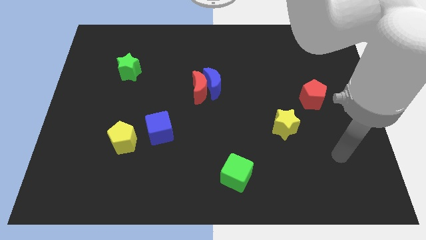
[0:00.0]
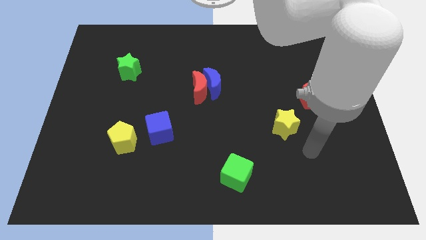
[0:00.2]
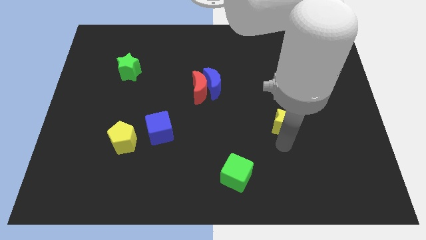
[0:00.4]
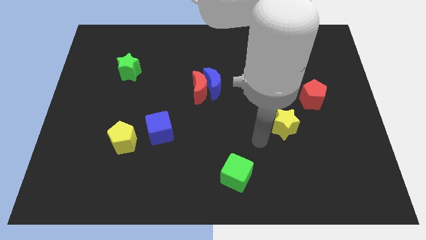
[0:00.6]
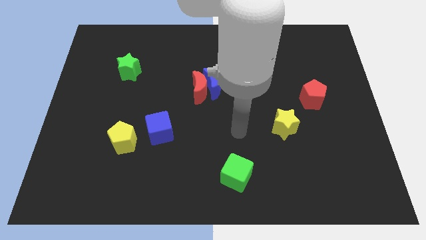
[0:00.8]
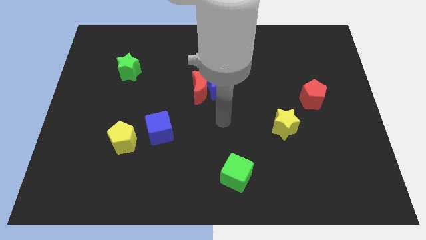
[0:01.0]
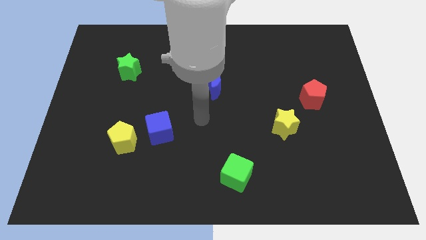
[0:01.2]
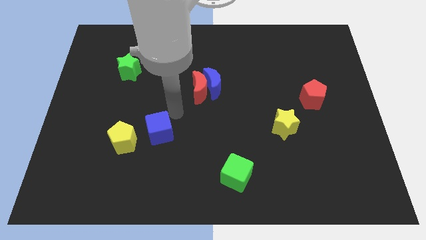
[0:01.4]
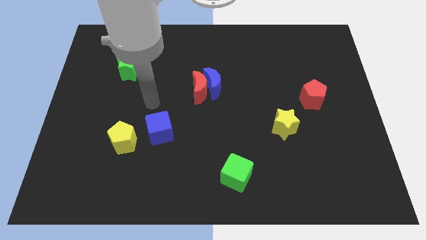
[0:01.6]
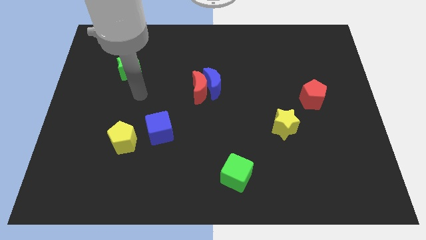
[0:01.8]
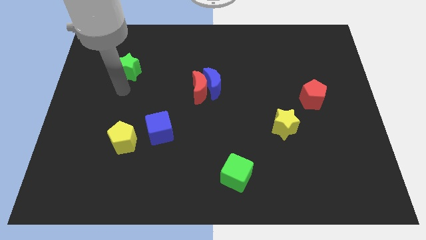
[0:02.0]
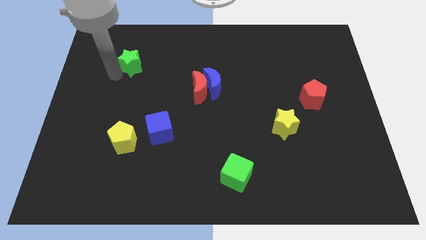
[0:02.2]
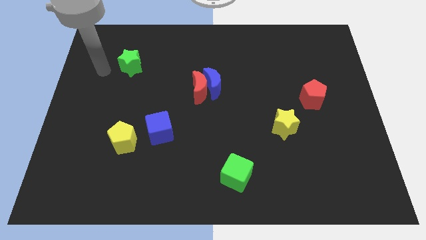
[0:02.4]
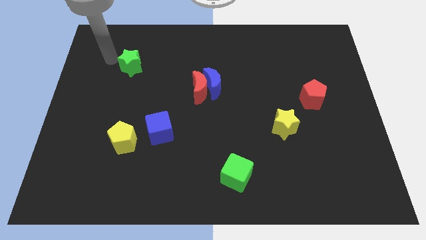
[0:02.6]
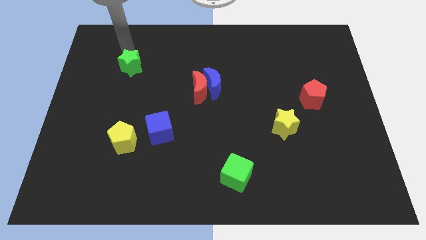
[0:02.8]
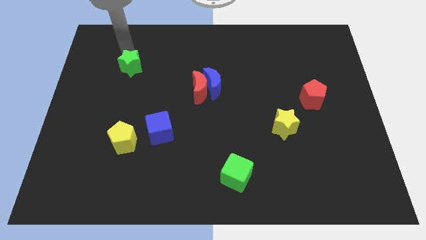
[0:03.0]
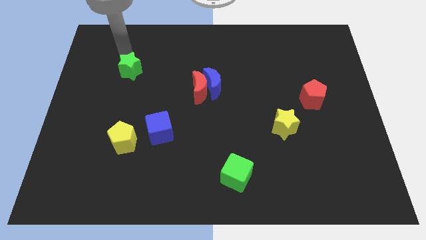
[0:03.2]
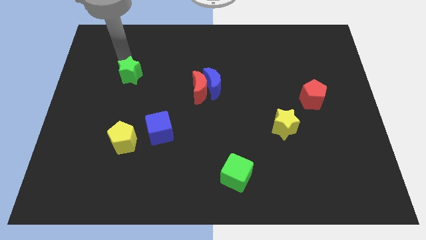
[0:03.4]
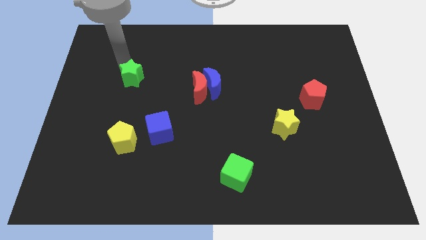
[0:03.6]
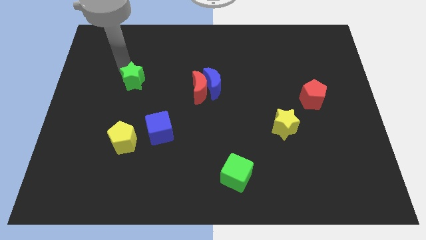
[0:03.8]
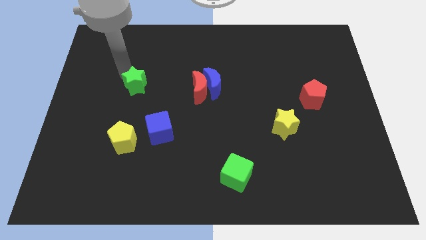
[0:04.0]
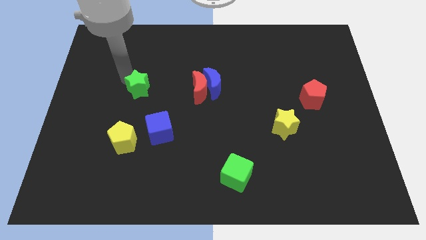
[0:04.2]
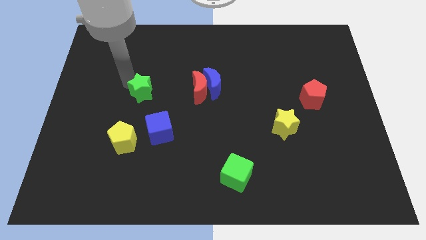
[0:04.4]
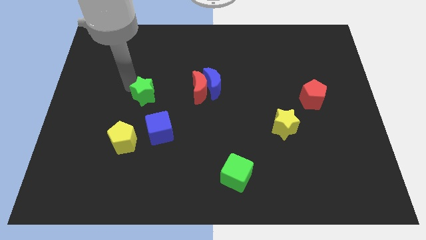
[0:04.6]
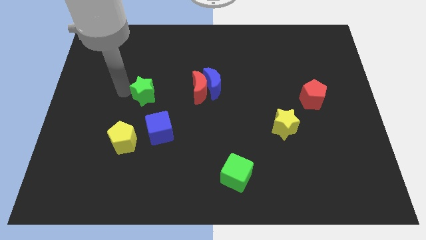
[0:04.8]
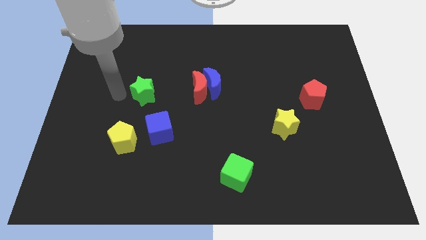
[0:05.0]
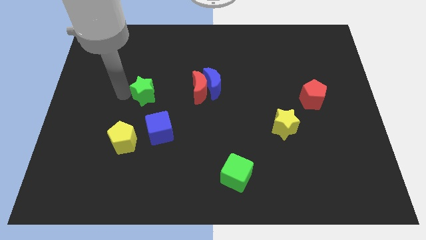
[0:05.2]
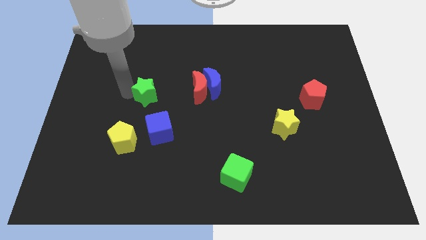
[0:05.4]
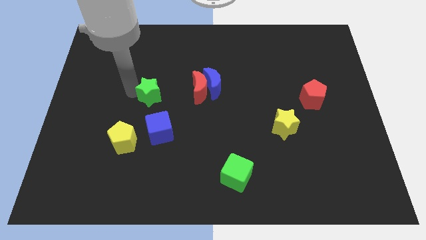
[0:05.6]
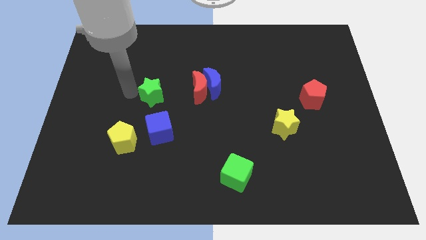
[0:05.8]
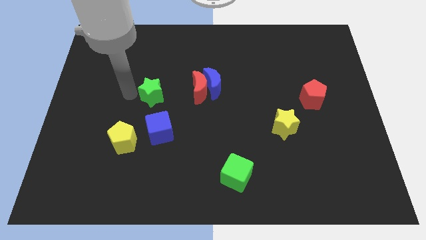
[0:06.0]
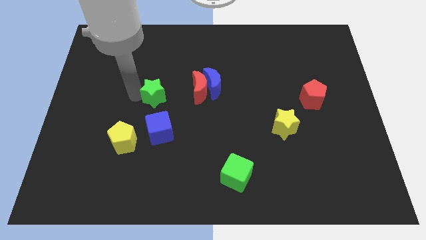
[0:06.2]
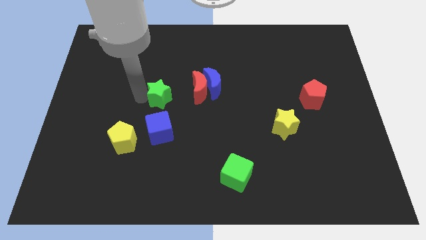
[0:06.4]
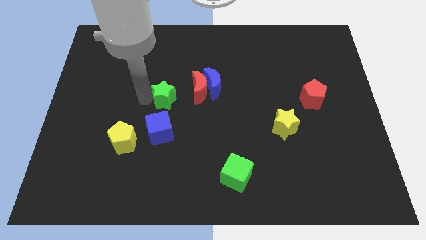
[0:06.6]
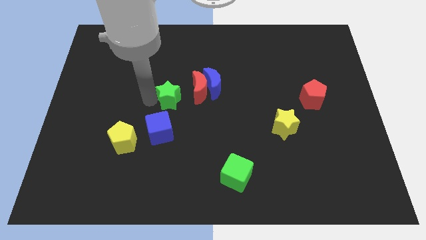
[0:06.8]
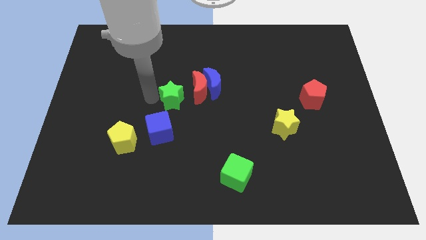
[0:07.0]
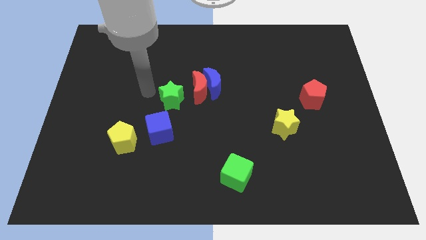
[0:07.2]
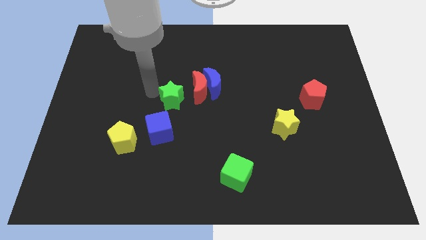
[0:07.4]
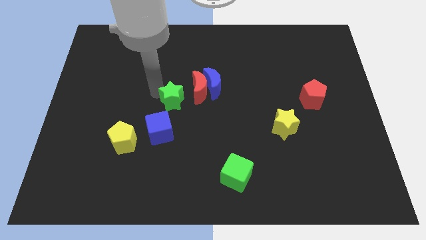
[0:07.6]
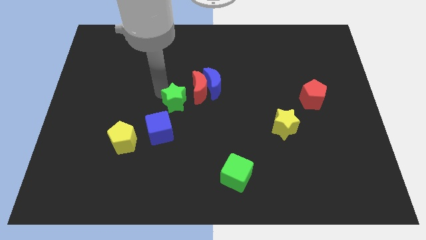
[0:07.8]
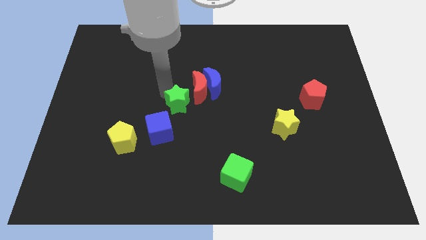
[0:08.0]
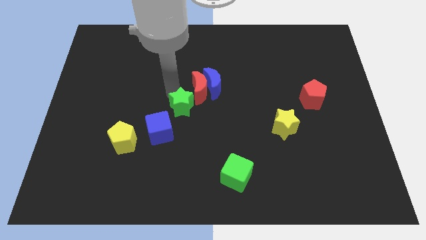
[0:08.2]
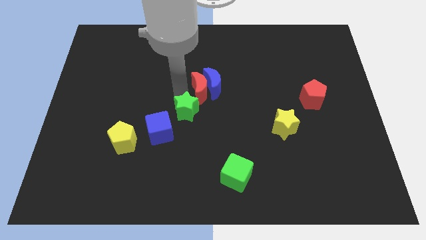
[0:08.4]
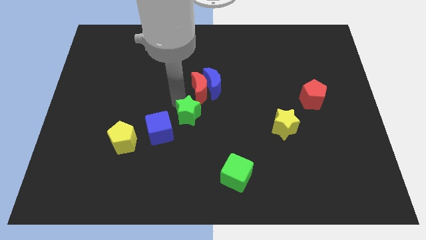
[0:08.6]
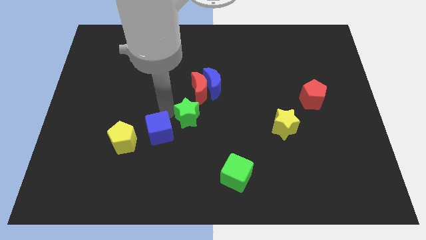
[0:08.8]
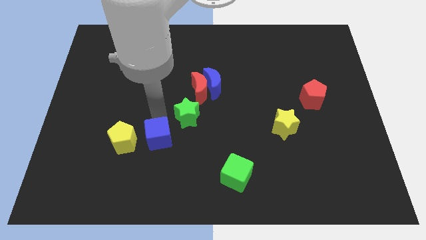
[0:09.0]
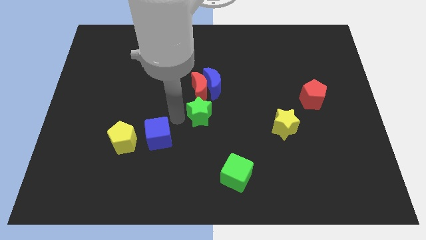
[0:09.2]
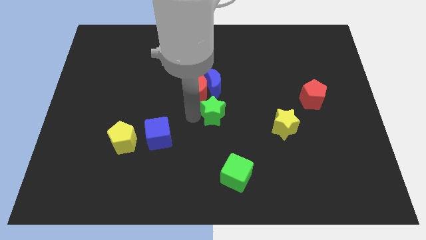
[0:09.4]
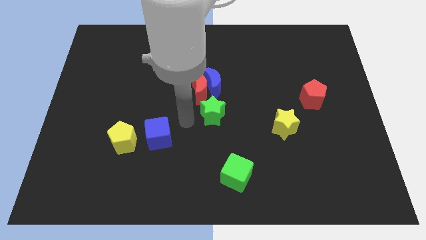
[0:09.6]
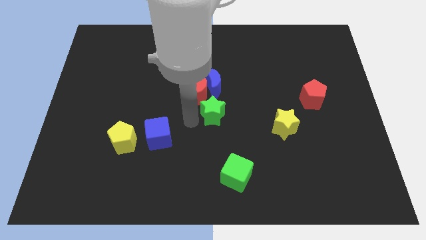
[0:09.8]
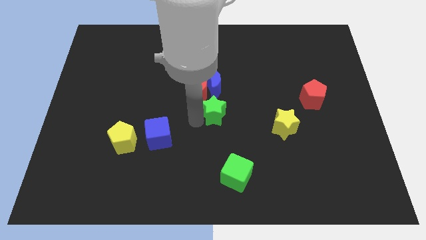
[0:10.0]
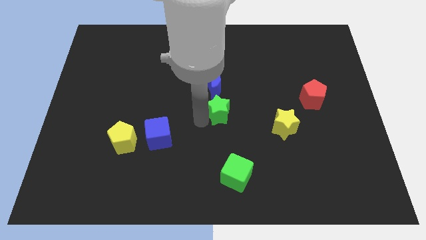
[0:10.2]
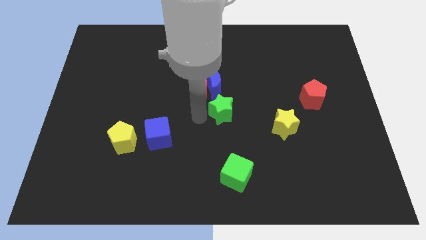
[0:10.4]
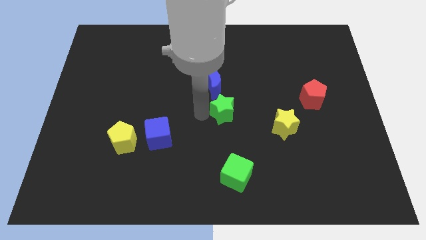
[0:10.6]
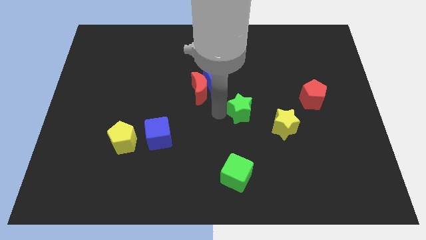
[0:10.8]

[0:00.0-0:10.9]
put the green star diagonally up and to the left of the yellow star

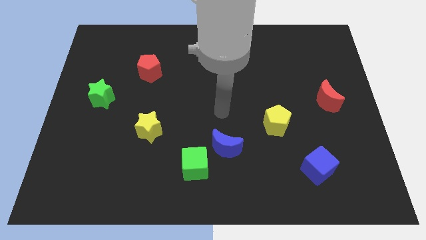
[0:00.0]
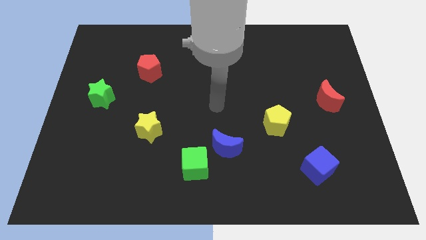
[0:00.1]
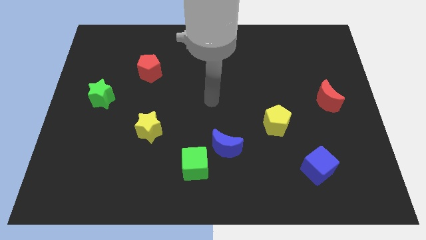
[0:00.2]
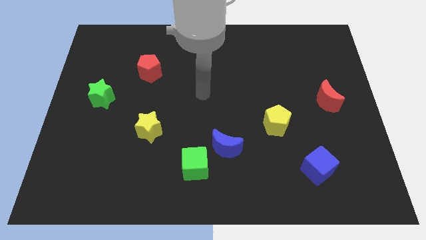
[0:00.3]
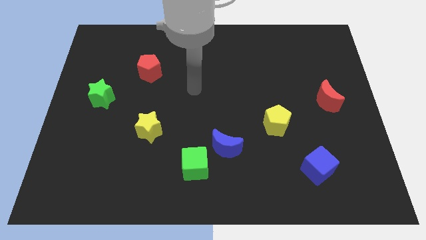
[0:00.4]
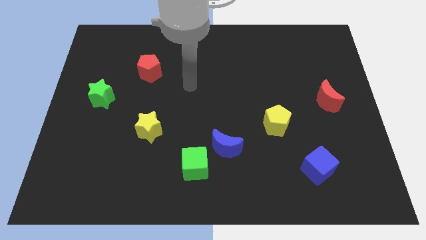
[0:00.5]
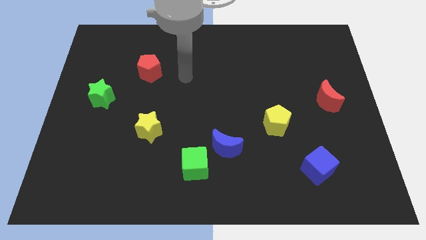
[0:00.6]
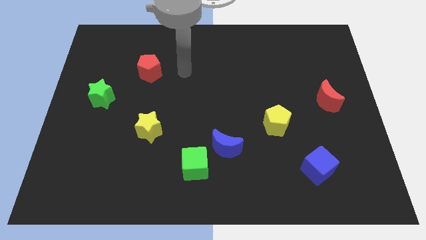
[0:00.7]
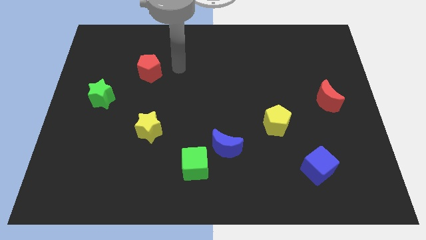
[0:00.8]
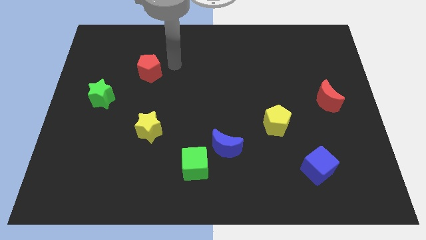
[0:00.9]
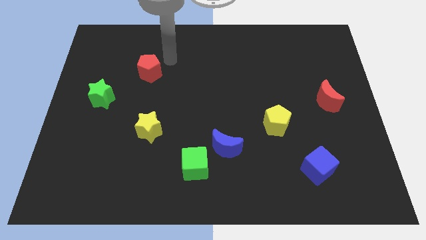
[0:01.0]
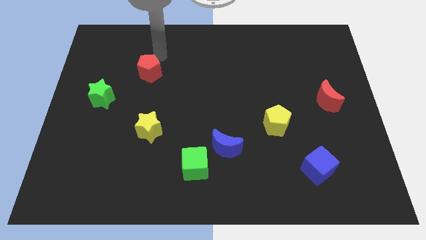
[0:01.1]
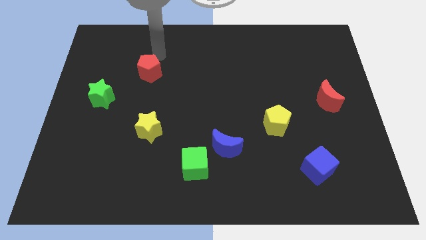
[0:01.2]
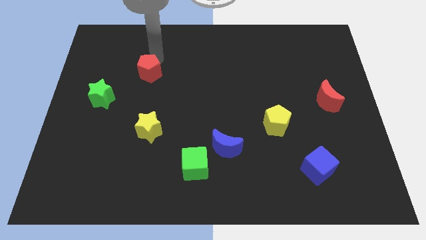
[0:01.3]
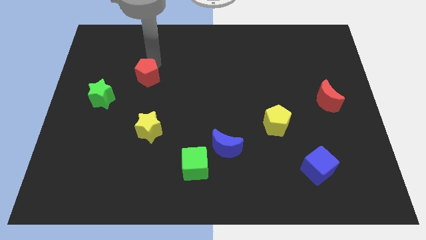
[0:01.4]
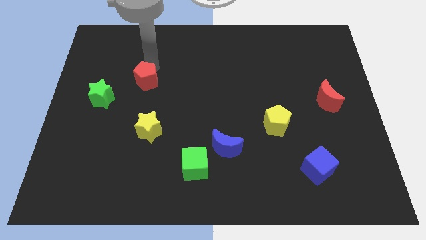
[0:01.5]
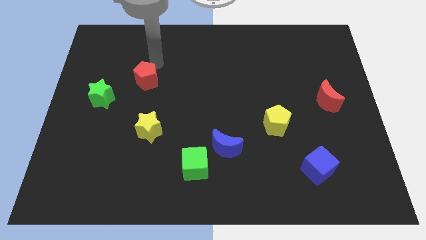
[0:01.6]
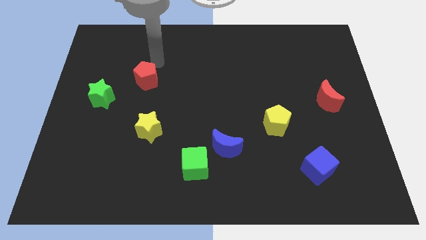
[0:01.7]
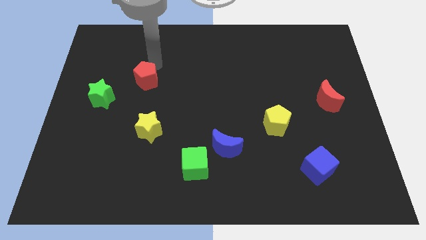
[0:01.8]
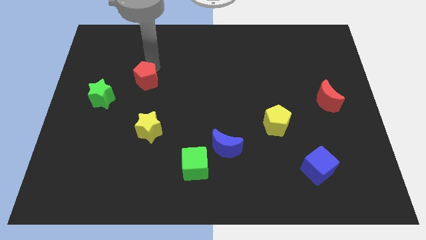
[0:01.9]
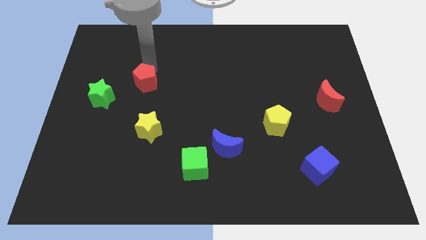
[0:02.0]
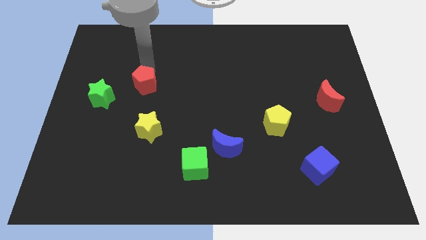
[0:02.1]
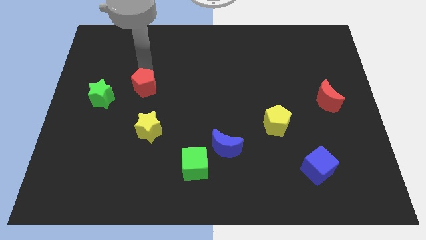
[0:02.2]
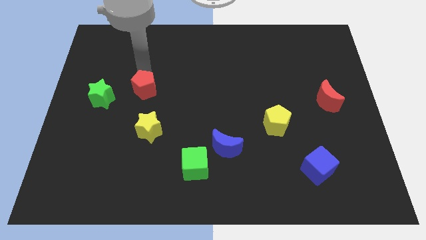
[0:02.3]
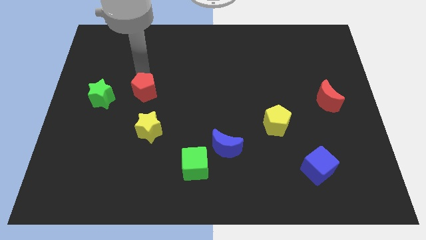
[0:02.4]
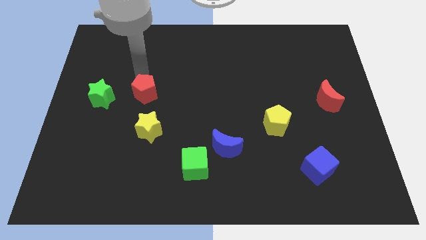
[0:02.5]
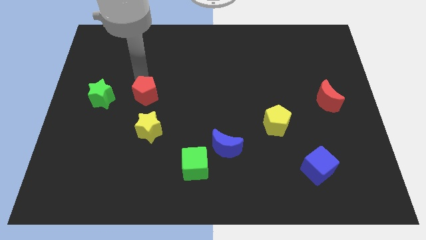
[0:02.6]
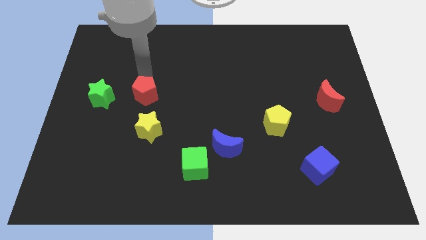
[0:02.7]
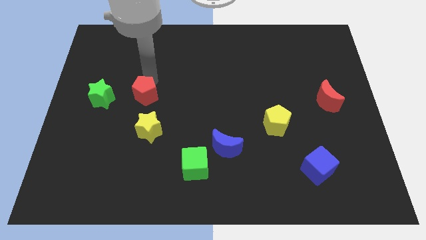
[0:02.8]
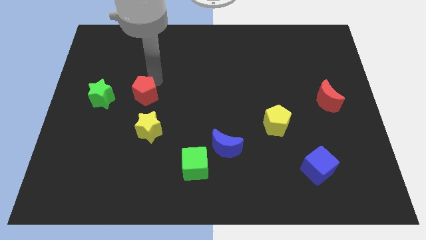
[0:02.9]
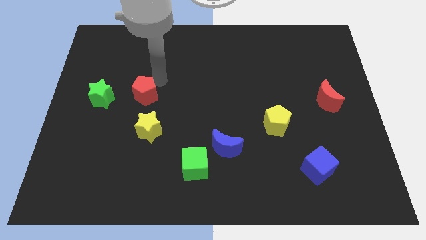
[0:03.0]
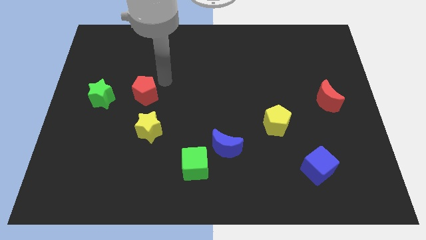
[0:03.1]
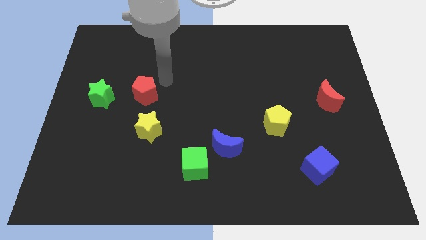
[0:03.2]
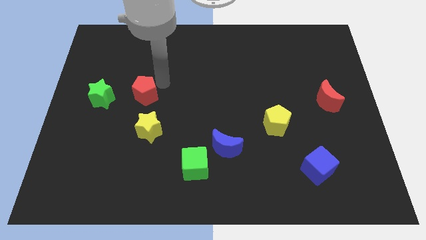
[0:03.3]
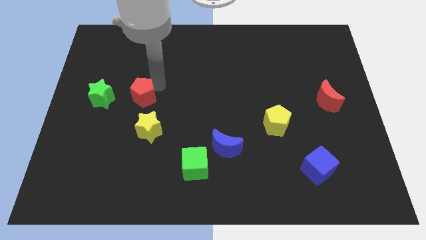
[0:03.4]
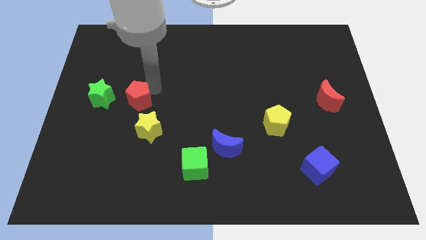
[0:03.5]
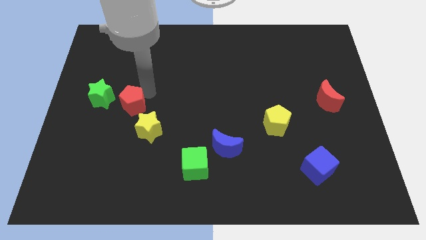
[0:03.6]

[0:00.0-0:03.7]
put the red pentagon diagonally down and to the right of the green star
